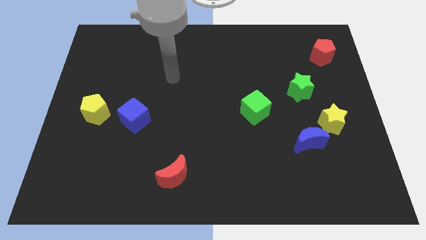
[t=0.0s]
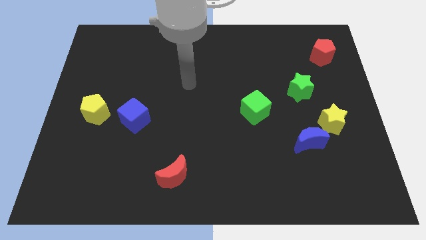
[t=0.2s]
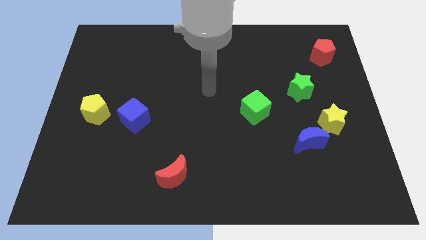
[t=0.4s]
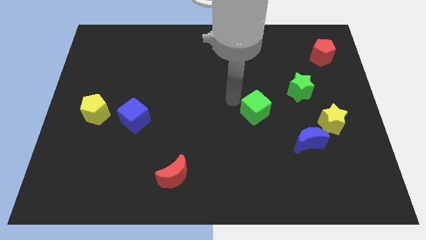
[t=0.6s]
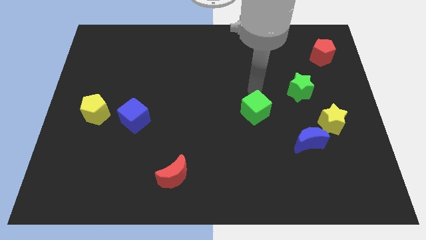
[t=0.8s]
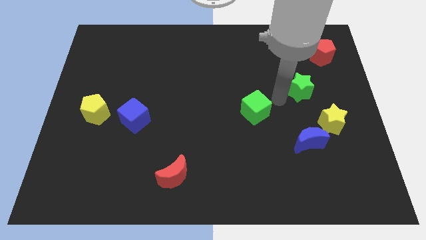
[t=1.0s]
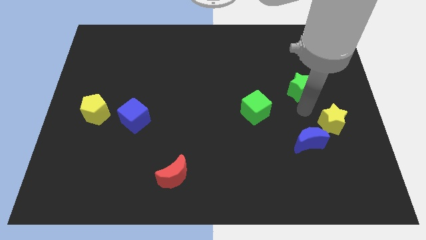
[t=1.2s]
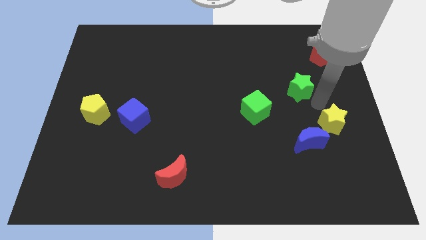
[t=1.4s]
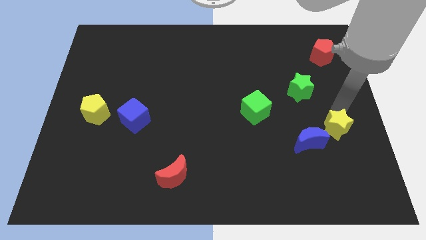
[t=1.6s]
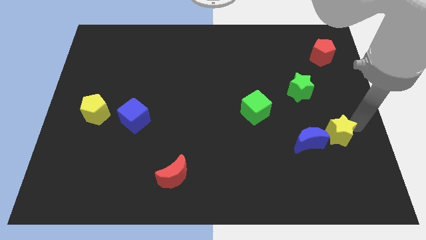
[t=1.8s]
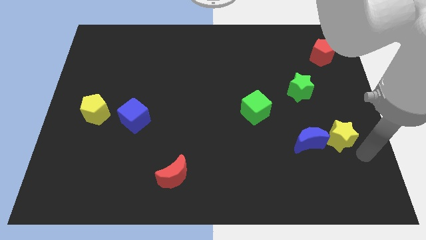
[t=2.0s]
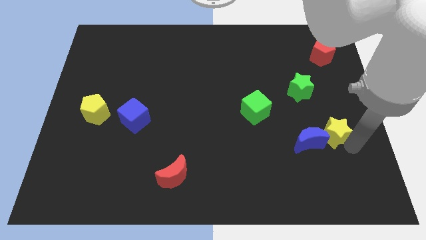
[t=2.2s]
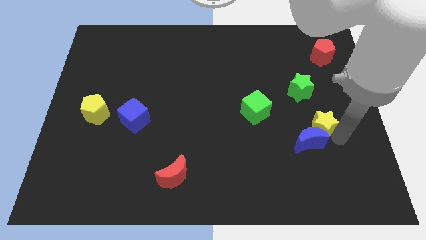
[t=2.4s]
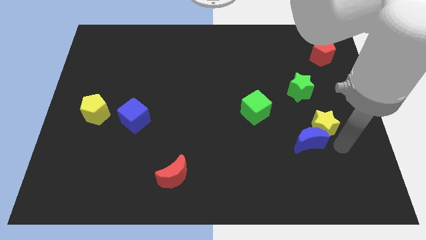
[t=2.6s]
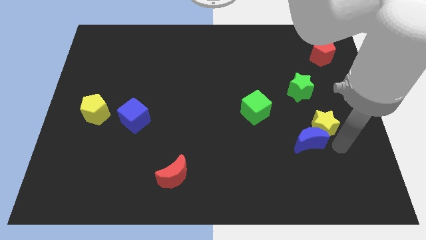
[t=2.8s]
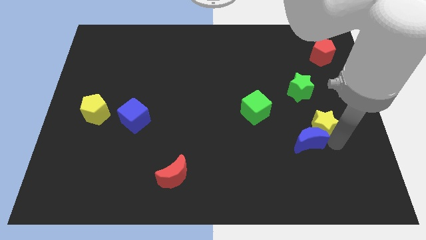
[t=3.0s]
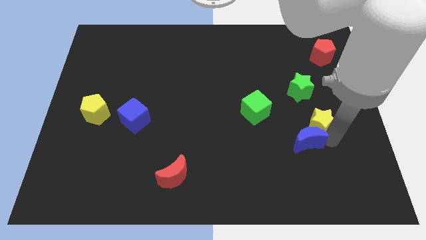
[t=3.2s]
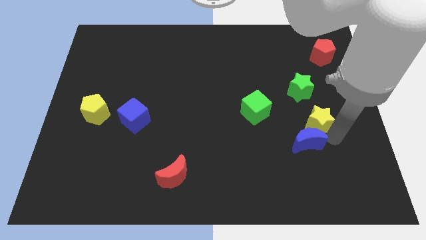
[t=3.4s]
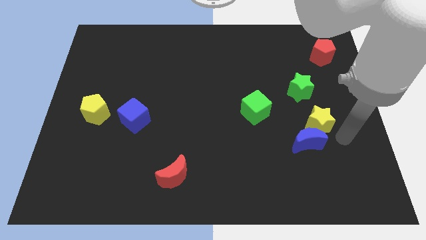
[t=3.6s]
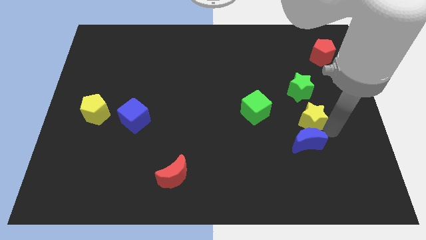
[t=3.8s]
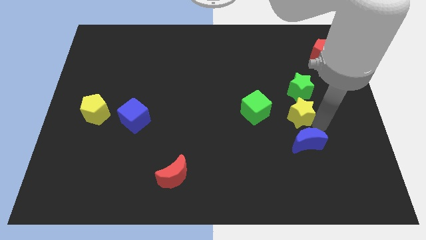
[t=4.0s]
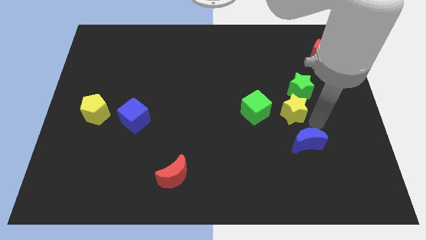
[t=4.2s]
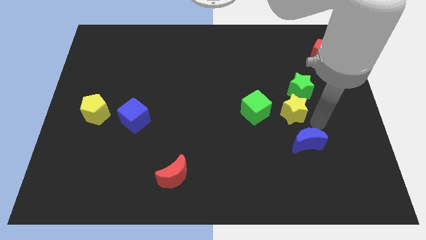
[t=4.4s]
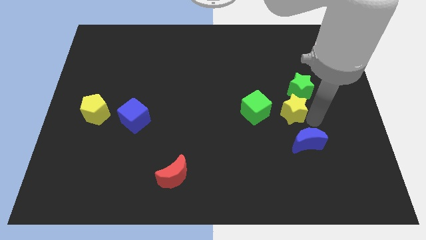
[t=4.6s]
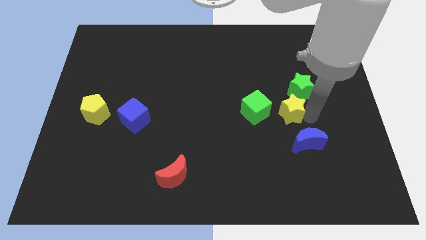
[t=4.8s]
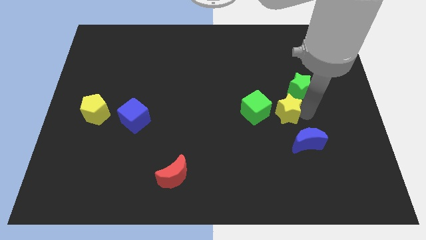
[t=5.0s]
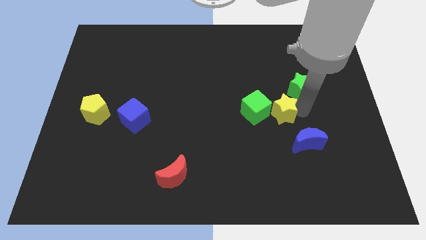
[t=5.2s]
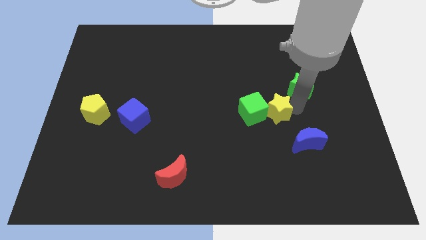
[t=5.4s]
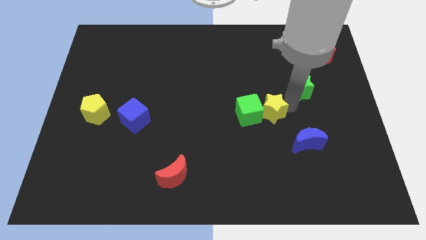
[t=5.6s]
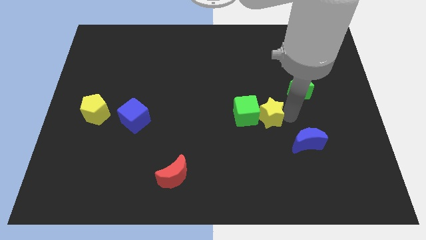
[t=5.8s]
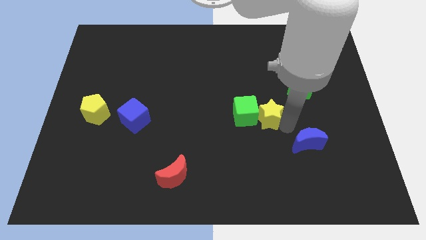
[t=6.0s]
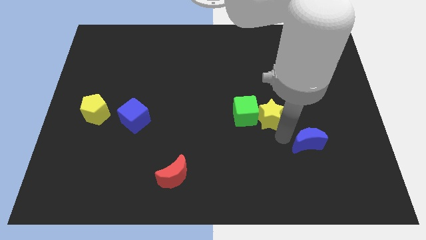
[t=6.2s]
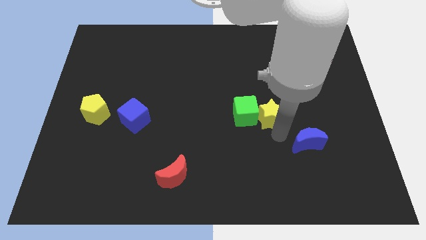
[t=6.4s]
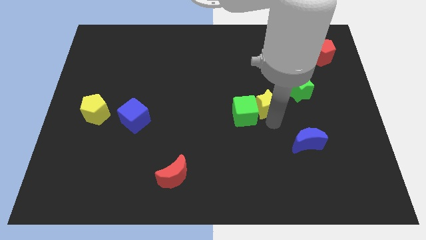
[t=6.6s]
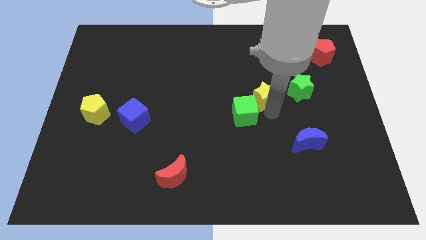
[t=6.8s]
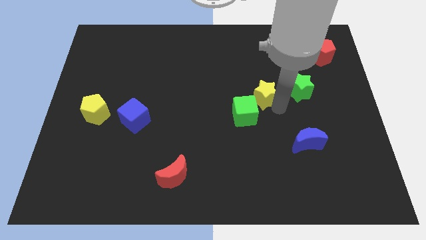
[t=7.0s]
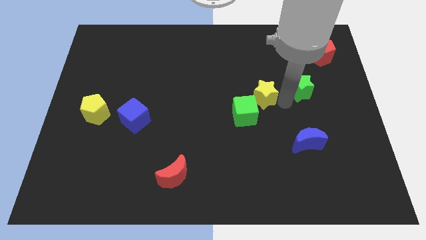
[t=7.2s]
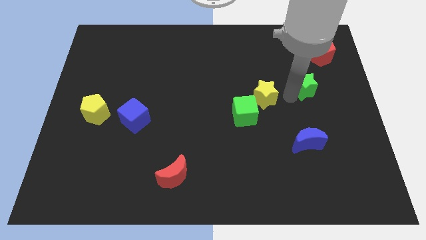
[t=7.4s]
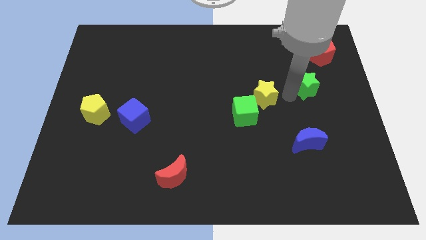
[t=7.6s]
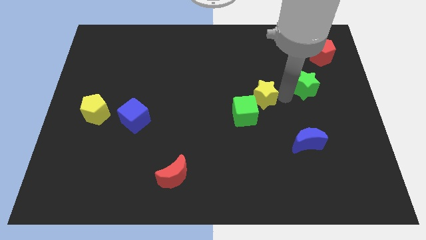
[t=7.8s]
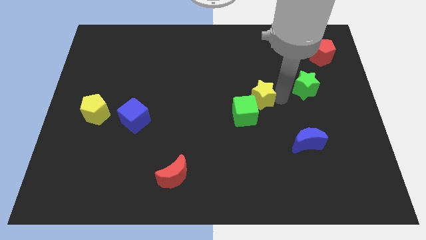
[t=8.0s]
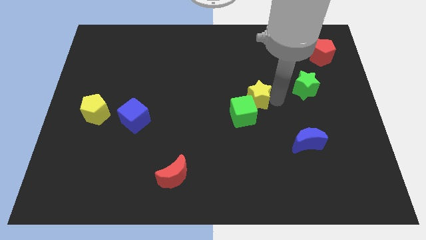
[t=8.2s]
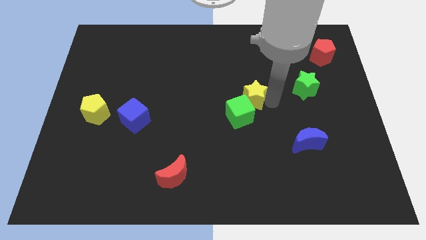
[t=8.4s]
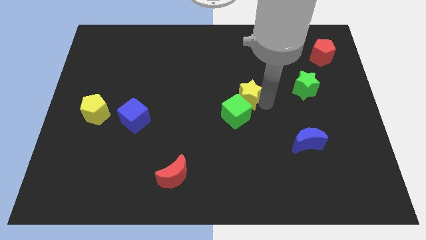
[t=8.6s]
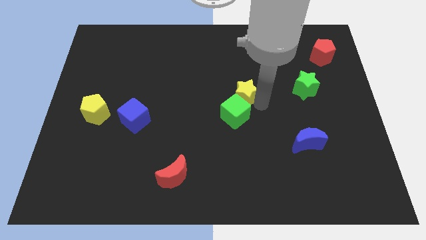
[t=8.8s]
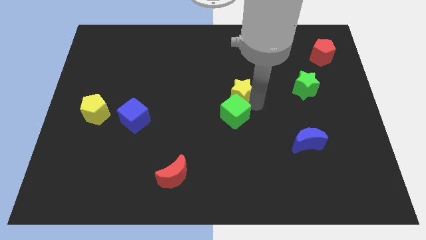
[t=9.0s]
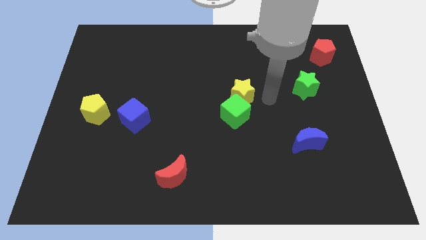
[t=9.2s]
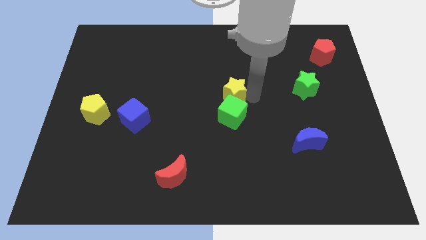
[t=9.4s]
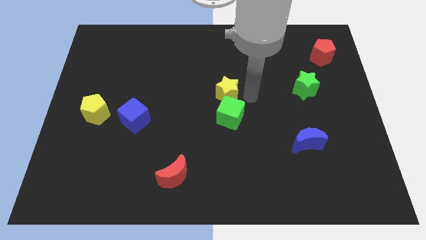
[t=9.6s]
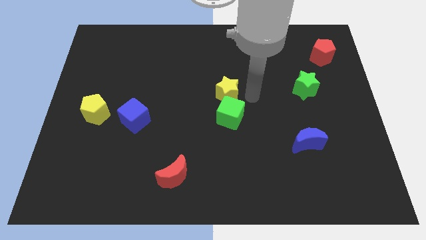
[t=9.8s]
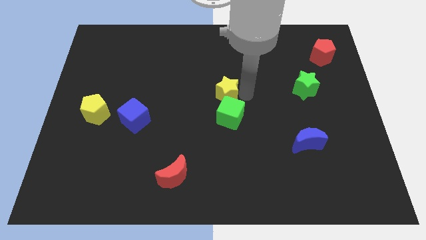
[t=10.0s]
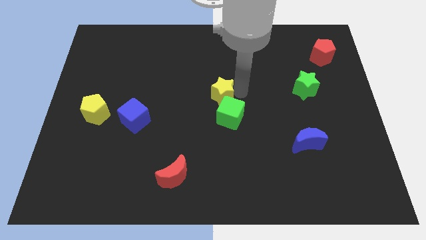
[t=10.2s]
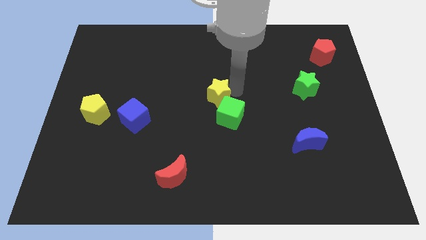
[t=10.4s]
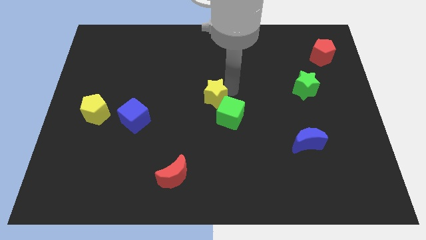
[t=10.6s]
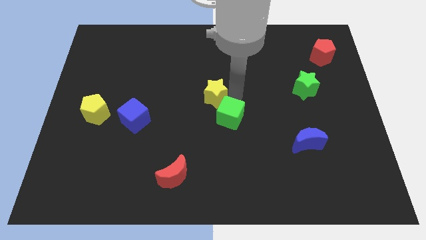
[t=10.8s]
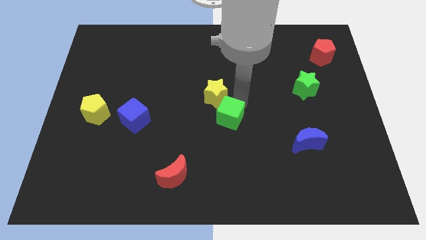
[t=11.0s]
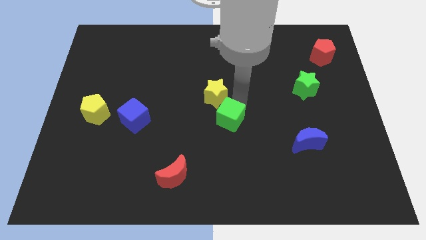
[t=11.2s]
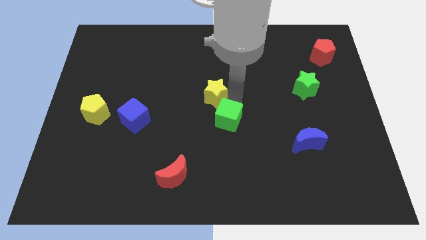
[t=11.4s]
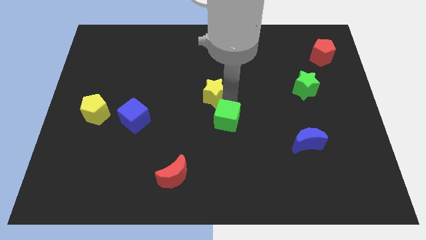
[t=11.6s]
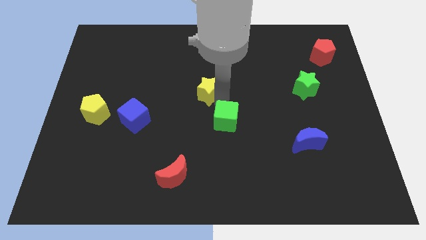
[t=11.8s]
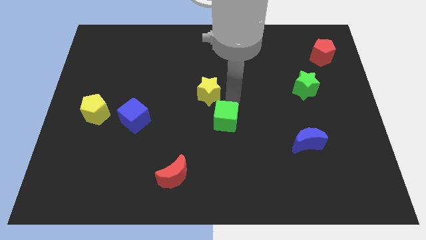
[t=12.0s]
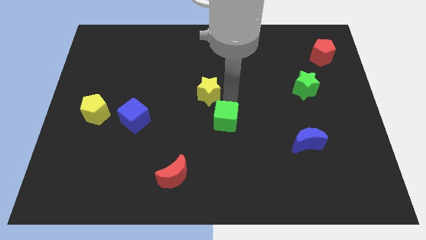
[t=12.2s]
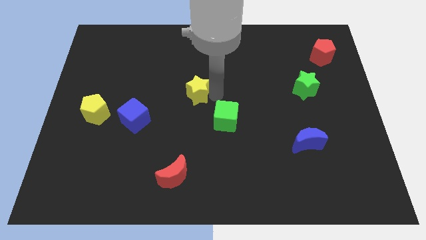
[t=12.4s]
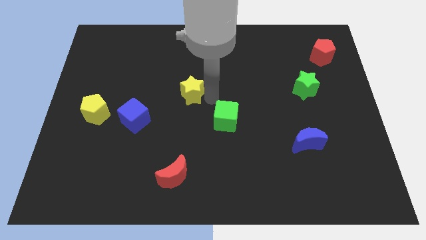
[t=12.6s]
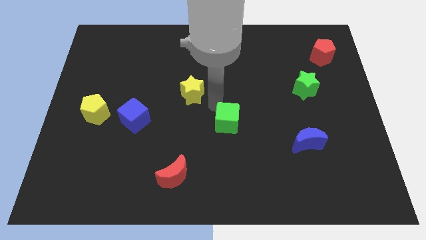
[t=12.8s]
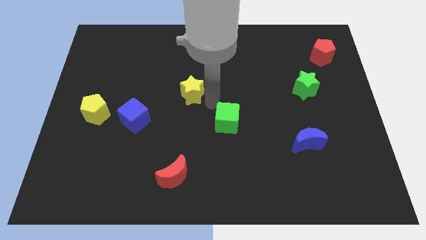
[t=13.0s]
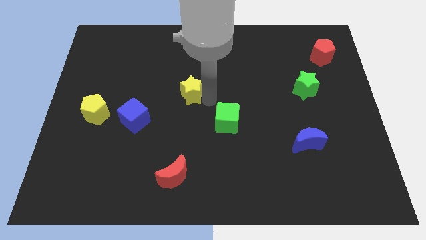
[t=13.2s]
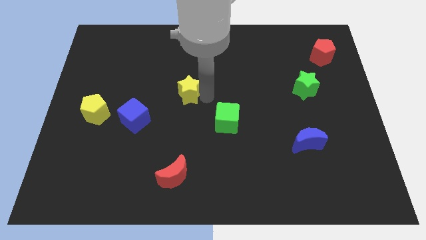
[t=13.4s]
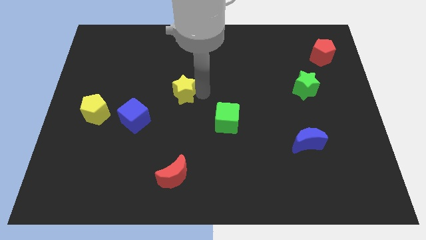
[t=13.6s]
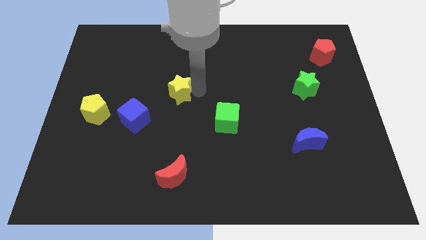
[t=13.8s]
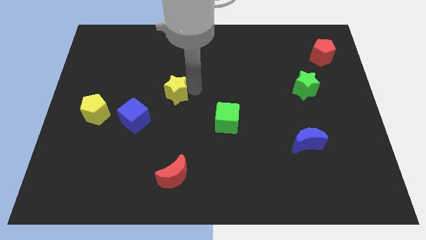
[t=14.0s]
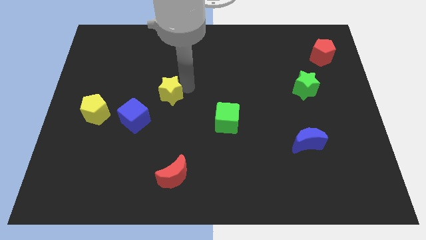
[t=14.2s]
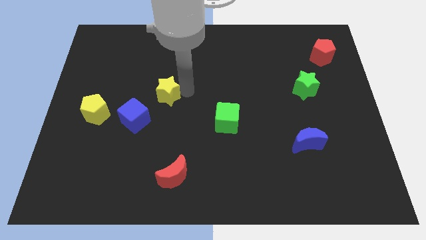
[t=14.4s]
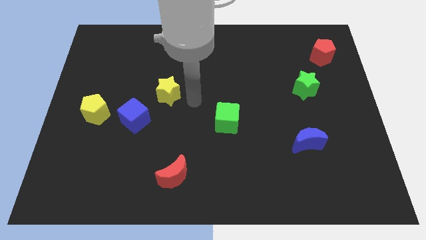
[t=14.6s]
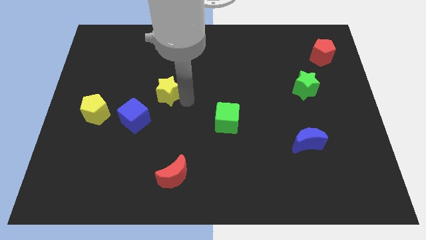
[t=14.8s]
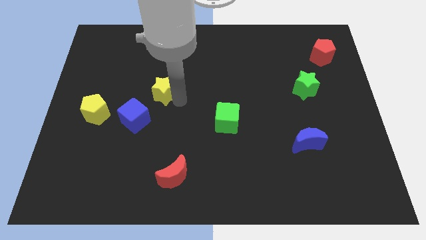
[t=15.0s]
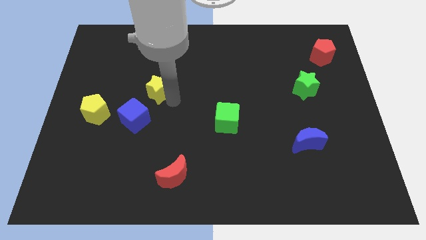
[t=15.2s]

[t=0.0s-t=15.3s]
move the yellow star above the blue cube
